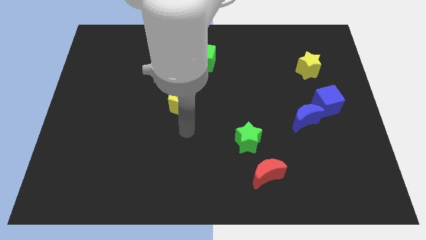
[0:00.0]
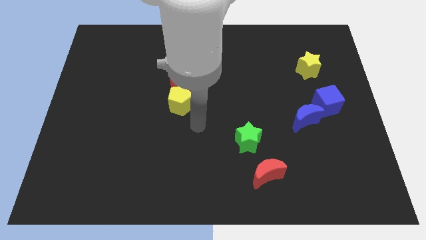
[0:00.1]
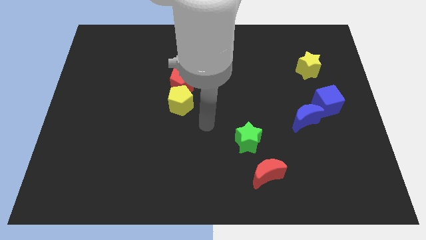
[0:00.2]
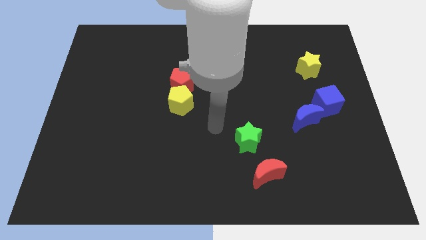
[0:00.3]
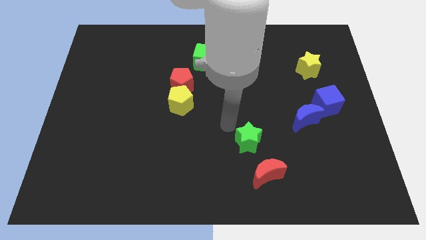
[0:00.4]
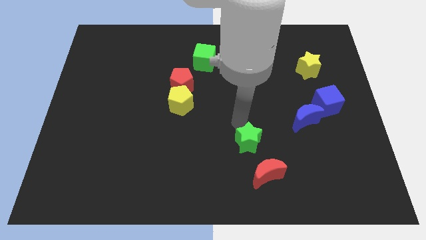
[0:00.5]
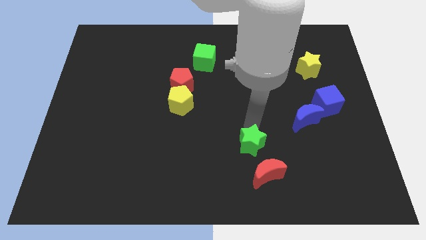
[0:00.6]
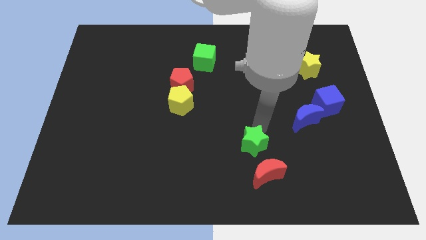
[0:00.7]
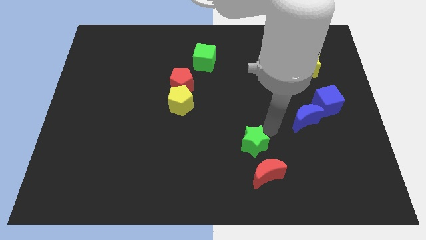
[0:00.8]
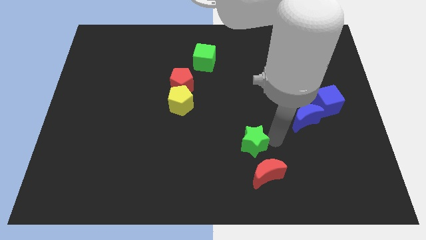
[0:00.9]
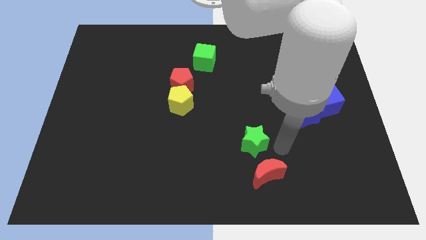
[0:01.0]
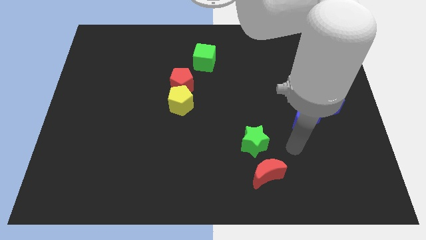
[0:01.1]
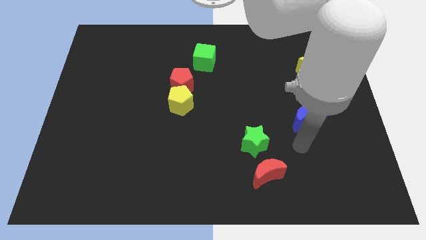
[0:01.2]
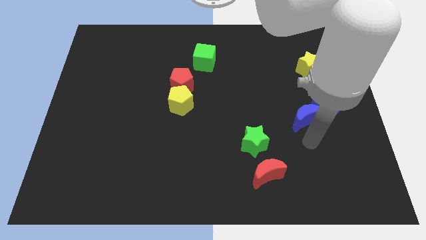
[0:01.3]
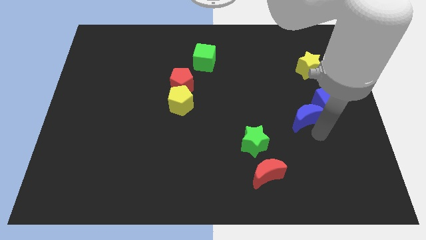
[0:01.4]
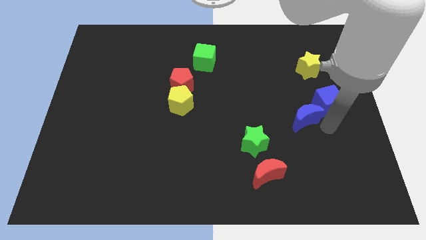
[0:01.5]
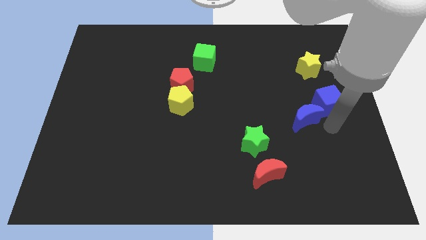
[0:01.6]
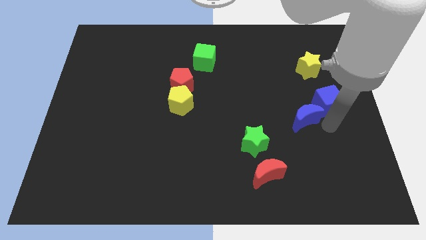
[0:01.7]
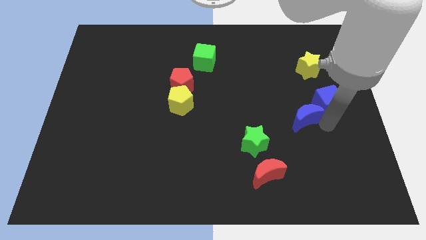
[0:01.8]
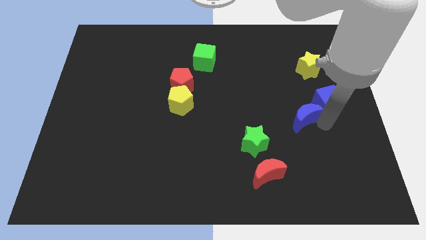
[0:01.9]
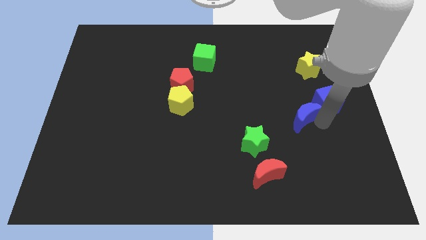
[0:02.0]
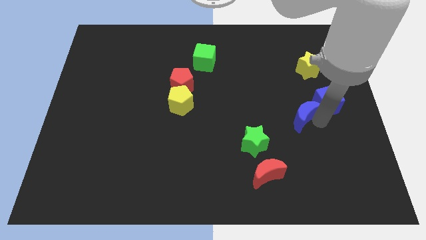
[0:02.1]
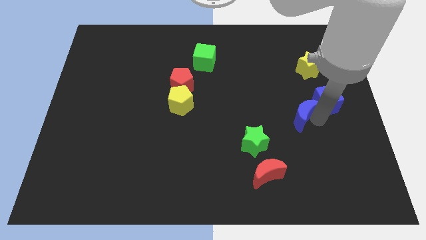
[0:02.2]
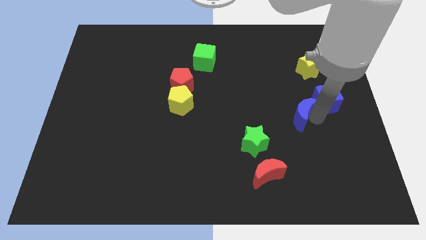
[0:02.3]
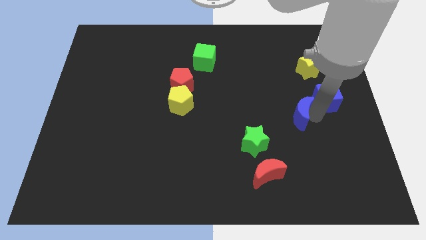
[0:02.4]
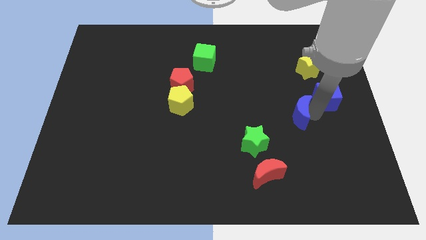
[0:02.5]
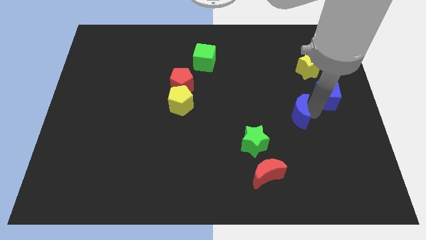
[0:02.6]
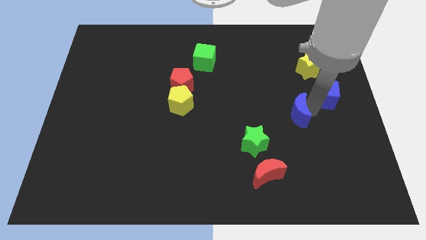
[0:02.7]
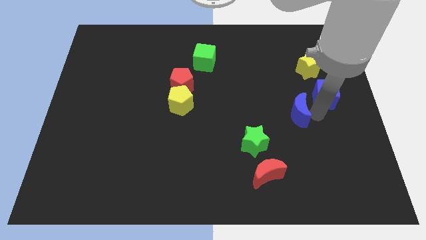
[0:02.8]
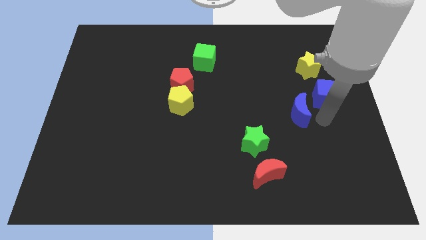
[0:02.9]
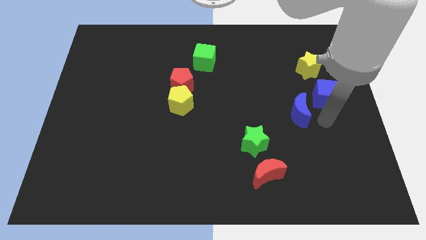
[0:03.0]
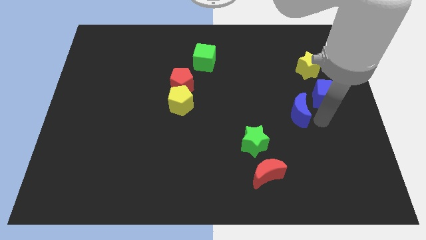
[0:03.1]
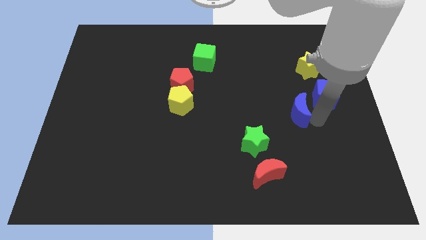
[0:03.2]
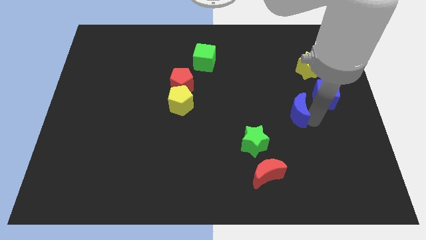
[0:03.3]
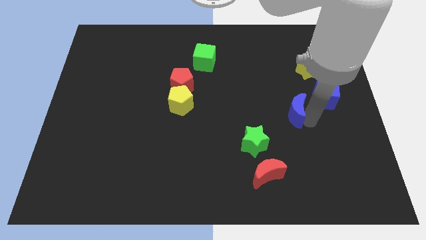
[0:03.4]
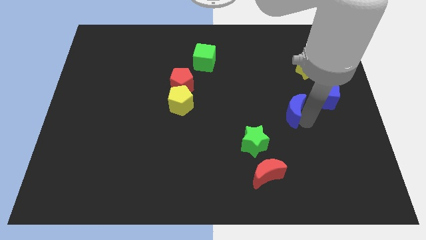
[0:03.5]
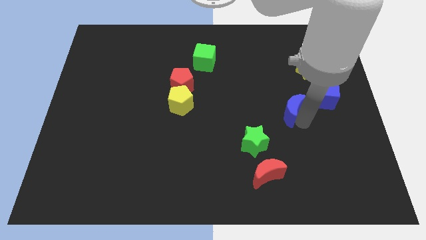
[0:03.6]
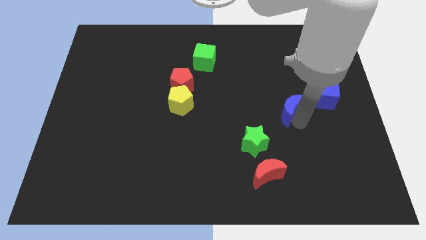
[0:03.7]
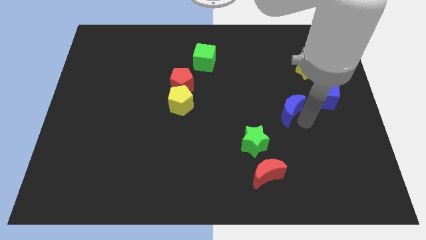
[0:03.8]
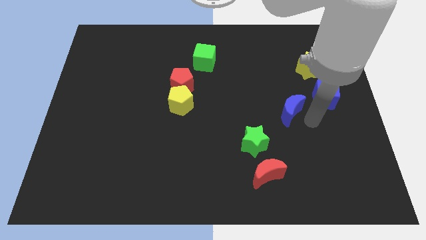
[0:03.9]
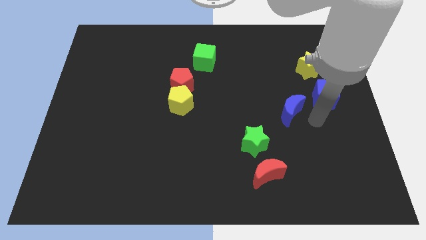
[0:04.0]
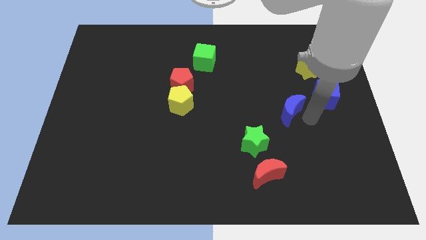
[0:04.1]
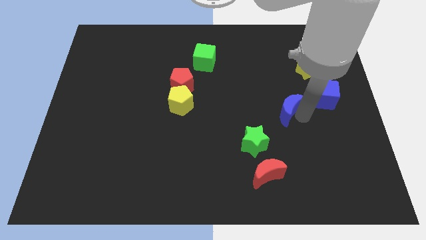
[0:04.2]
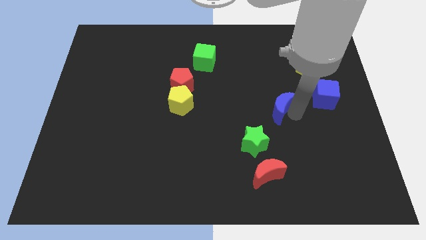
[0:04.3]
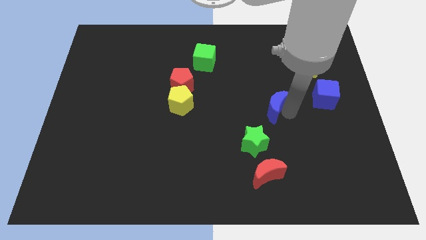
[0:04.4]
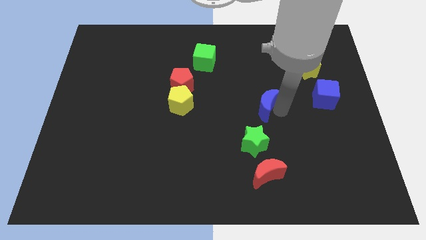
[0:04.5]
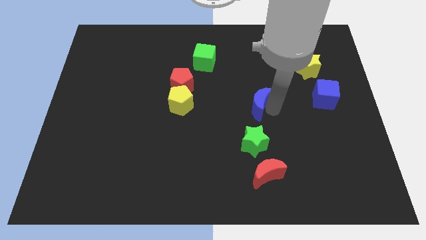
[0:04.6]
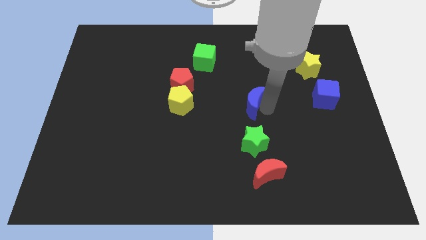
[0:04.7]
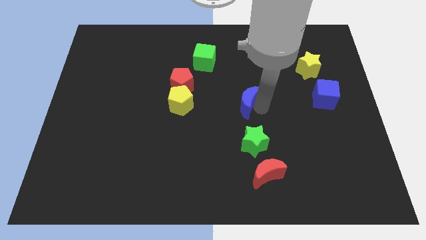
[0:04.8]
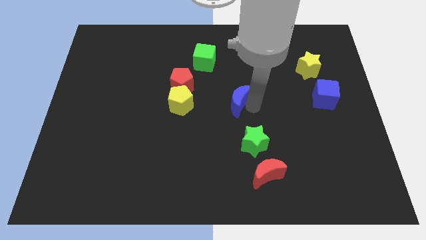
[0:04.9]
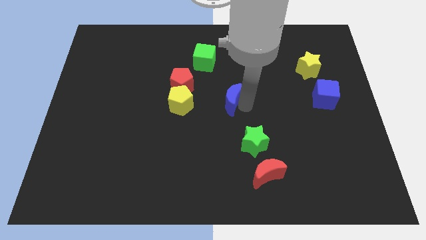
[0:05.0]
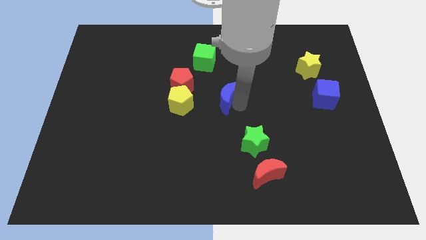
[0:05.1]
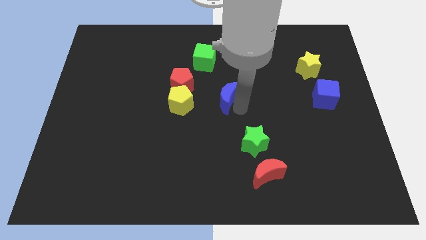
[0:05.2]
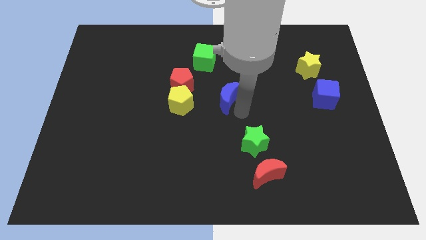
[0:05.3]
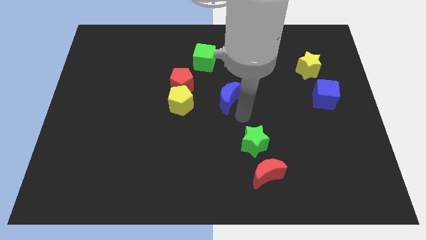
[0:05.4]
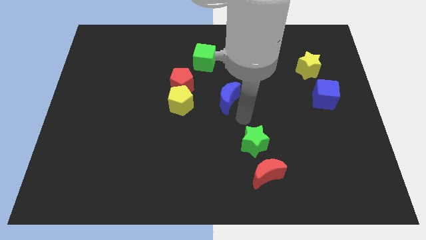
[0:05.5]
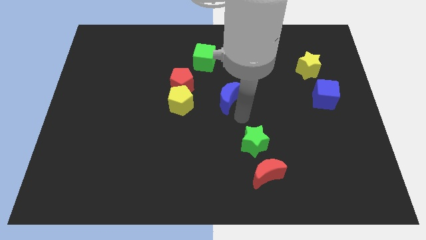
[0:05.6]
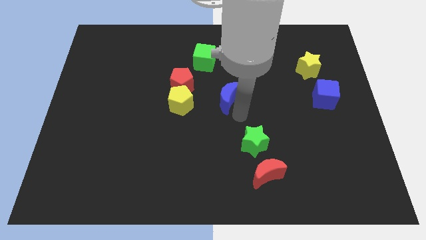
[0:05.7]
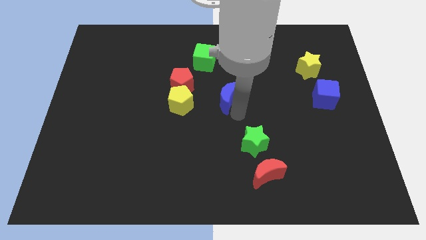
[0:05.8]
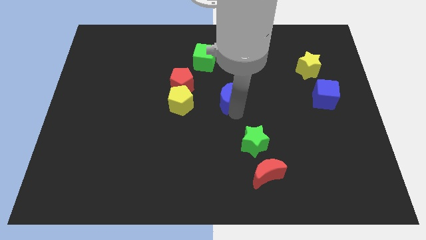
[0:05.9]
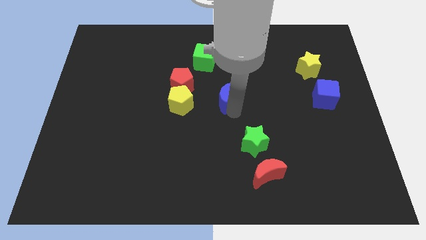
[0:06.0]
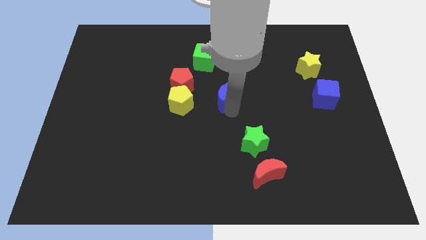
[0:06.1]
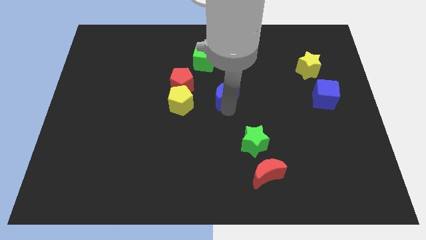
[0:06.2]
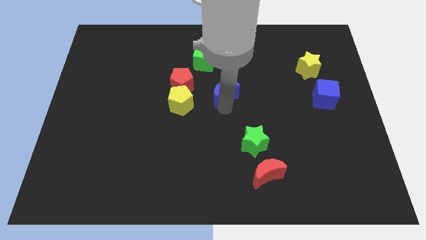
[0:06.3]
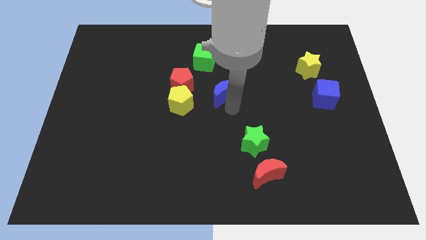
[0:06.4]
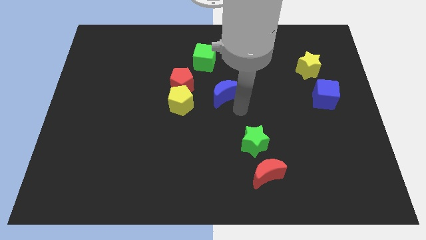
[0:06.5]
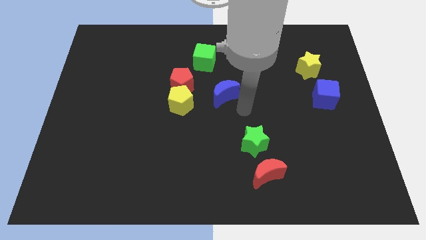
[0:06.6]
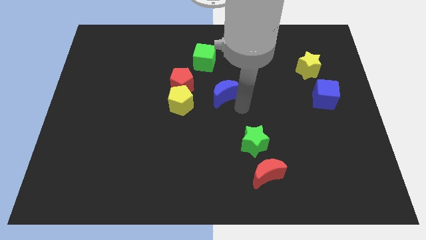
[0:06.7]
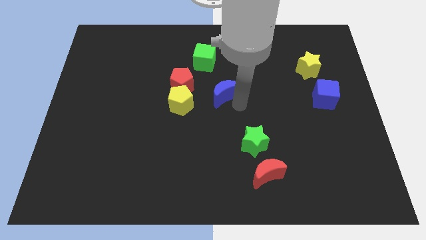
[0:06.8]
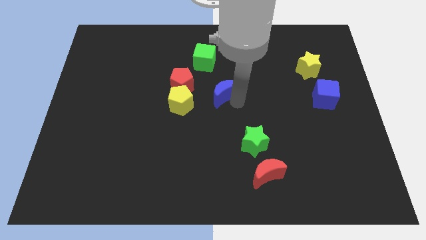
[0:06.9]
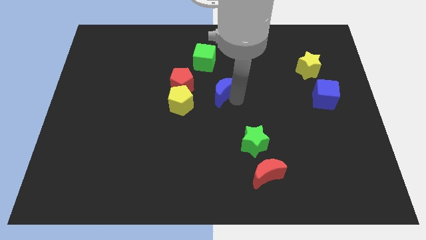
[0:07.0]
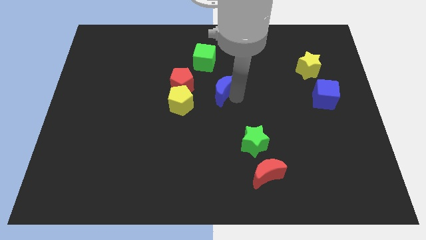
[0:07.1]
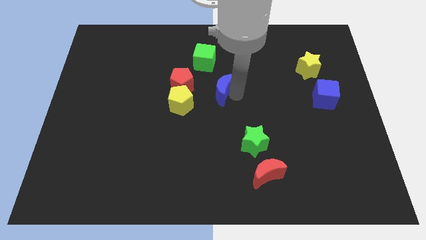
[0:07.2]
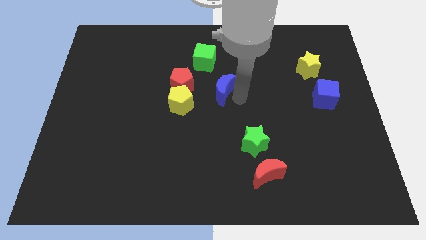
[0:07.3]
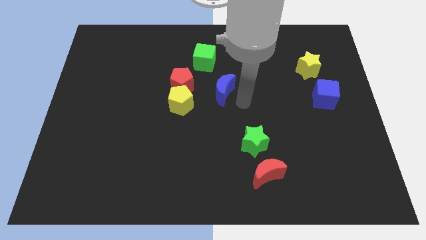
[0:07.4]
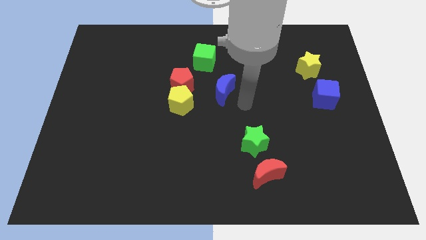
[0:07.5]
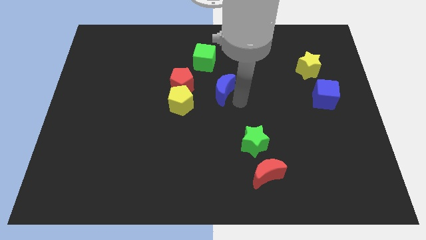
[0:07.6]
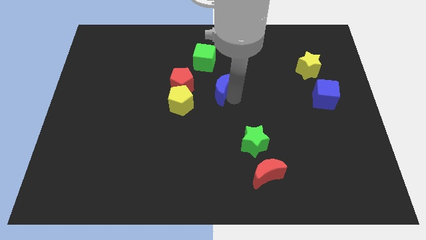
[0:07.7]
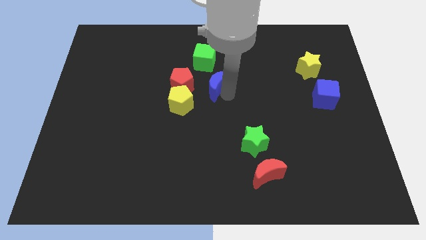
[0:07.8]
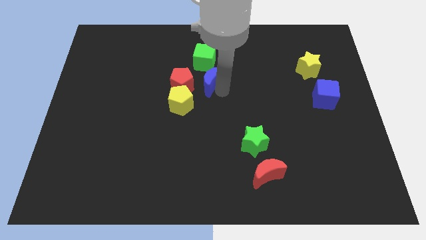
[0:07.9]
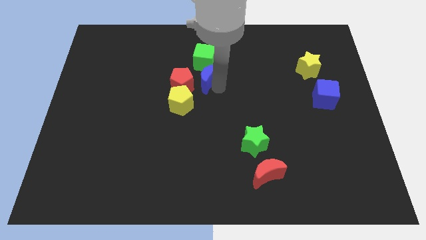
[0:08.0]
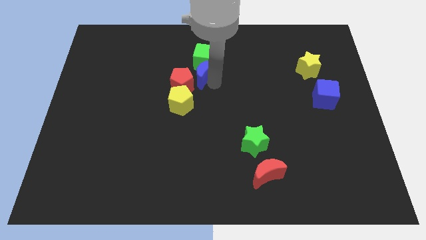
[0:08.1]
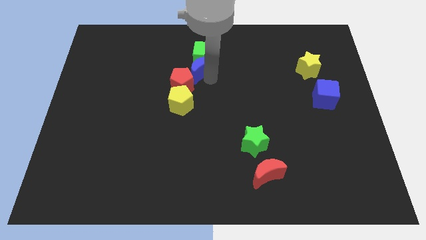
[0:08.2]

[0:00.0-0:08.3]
put the blue moon to the top of the yellow pentagon
